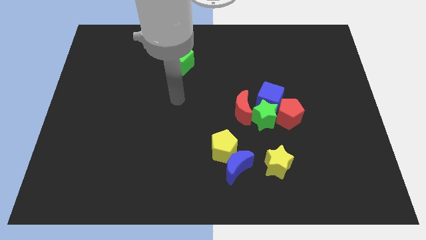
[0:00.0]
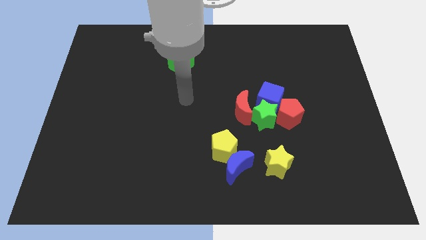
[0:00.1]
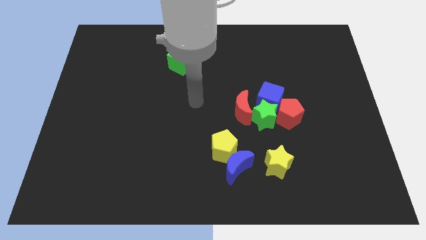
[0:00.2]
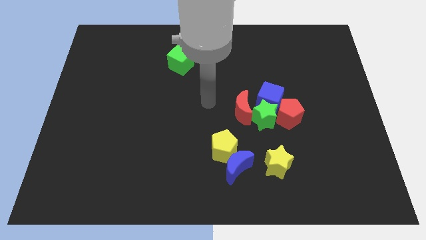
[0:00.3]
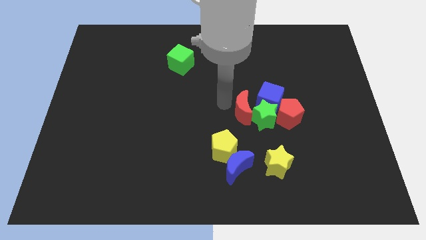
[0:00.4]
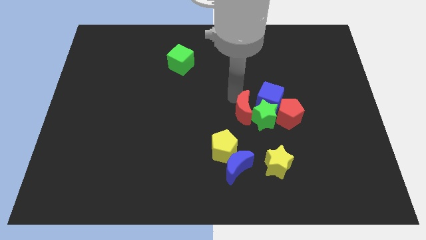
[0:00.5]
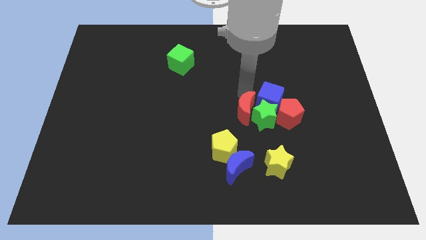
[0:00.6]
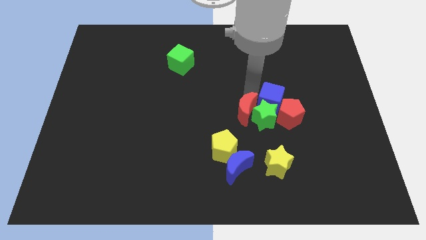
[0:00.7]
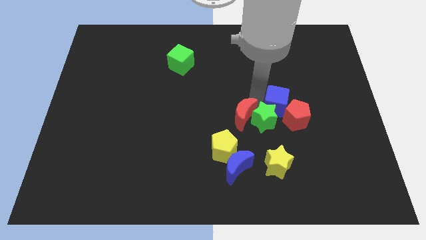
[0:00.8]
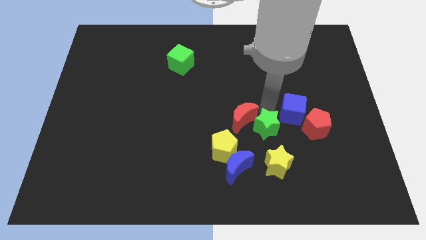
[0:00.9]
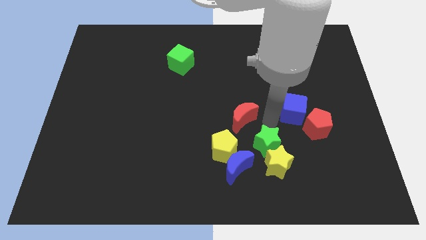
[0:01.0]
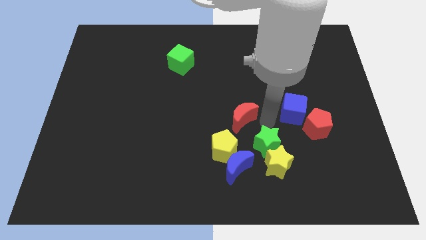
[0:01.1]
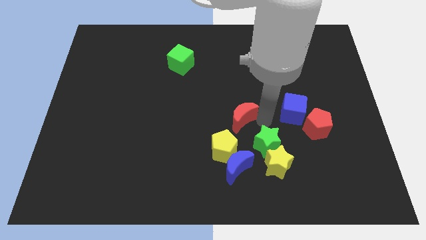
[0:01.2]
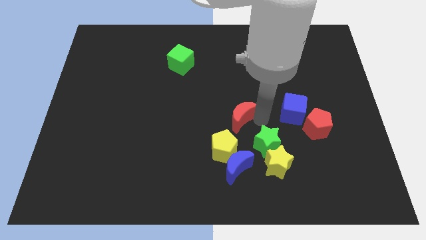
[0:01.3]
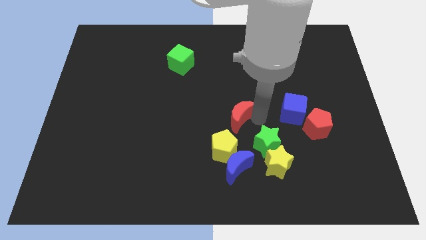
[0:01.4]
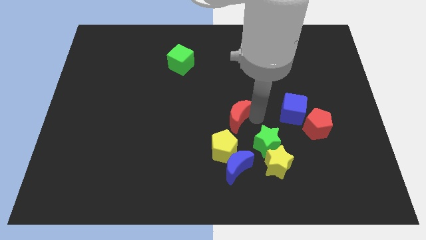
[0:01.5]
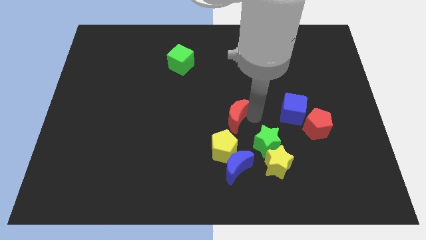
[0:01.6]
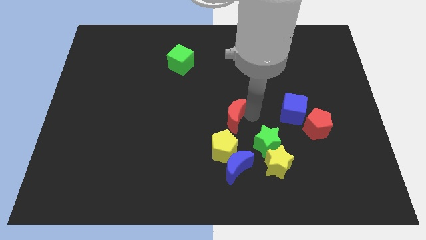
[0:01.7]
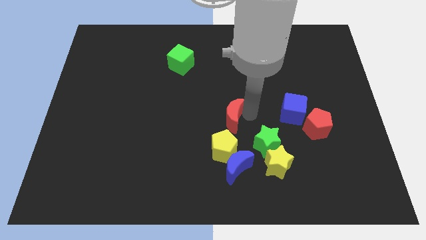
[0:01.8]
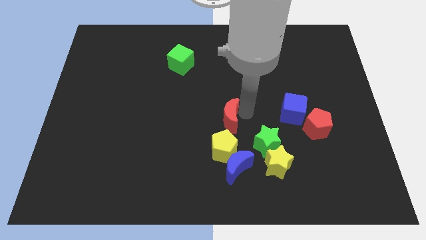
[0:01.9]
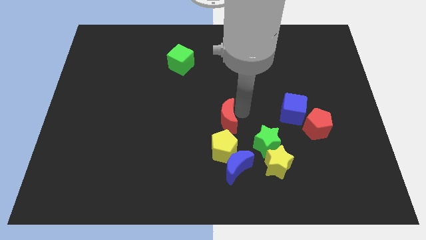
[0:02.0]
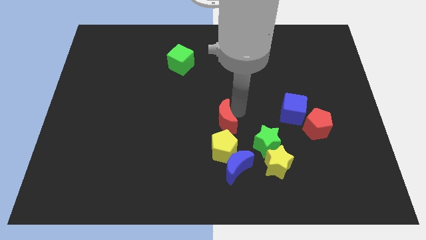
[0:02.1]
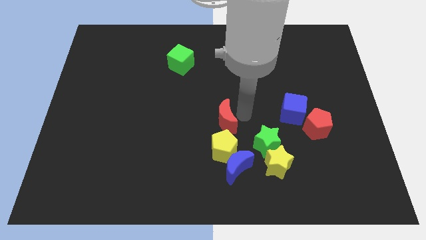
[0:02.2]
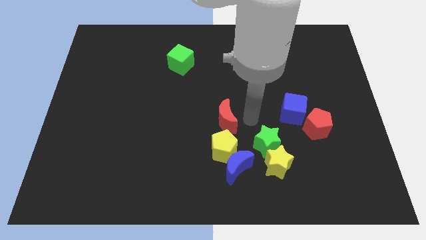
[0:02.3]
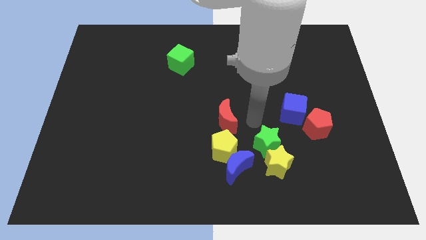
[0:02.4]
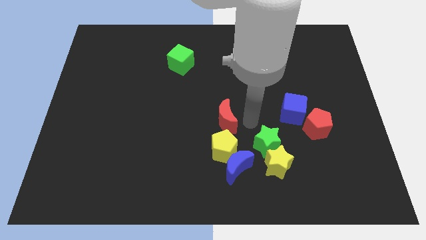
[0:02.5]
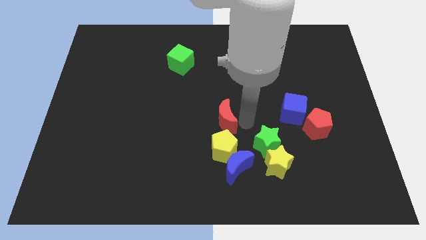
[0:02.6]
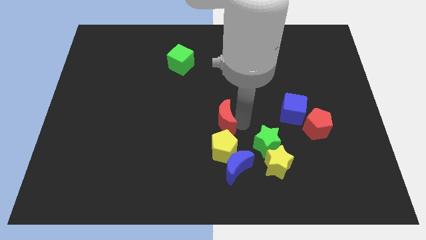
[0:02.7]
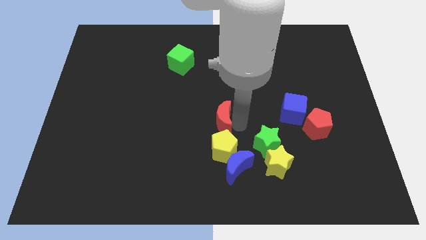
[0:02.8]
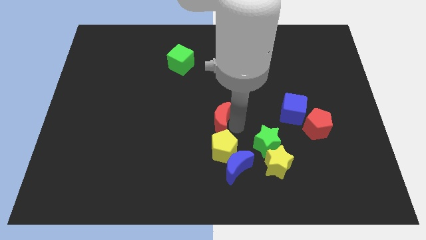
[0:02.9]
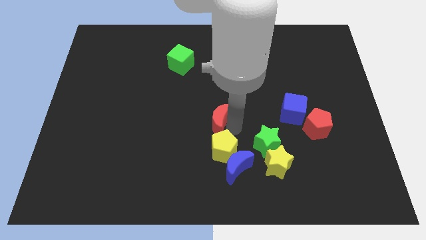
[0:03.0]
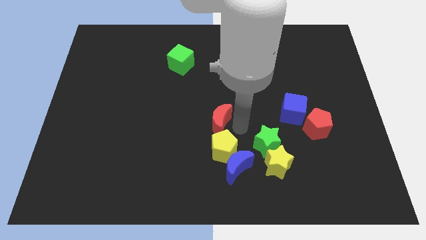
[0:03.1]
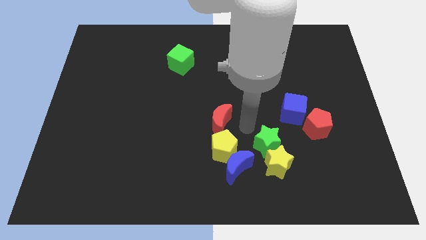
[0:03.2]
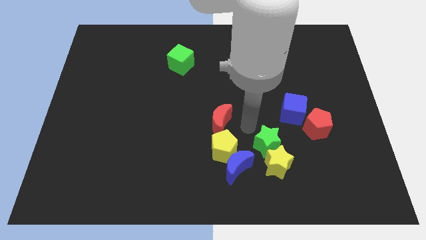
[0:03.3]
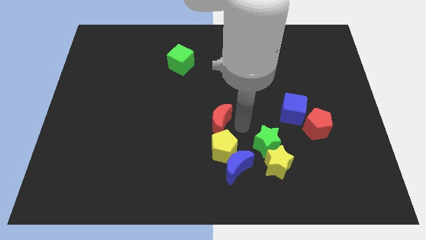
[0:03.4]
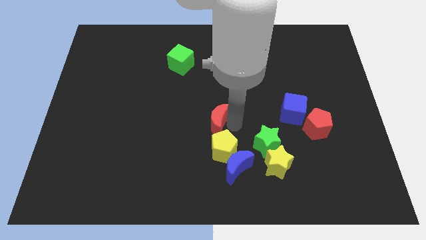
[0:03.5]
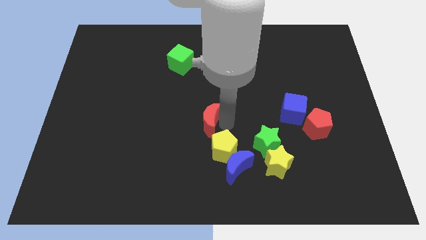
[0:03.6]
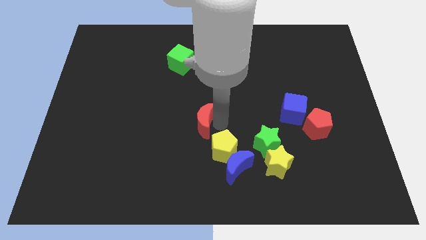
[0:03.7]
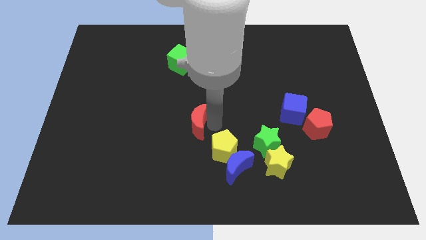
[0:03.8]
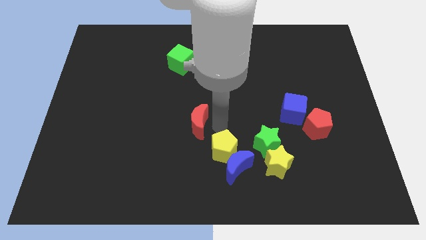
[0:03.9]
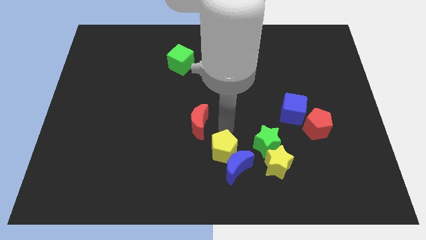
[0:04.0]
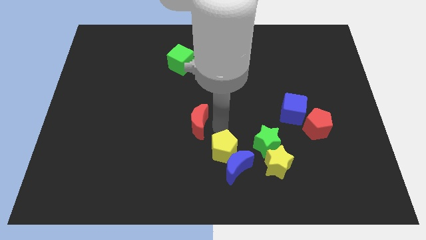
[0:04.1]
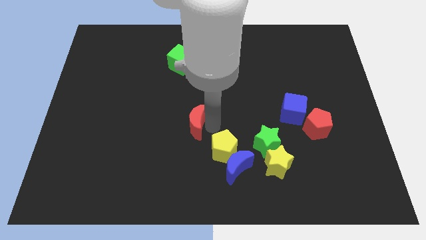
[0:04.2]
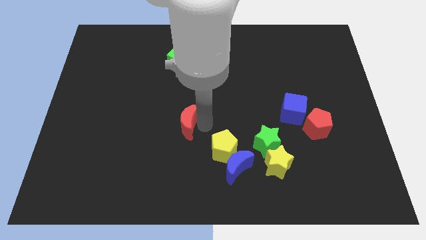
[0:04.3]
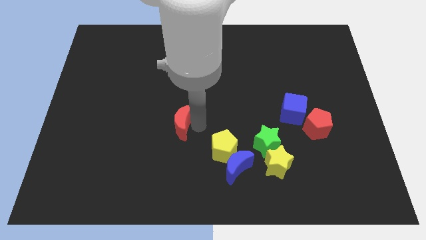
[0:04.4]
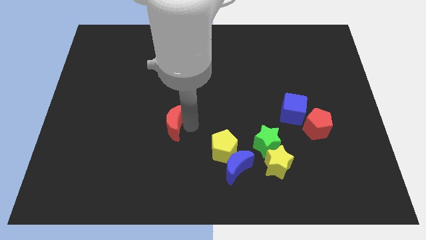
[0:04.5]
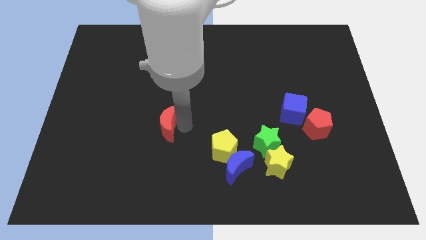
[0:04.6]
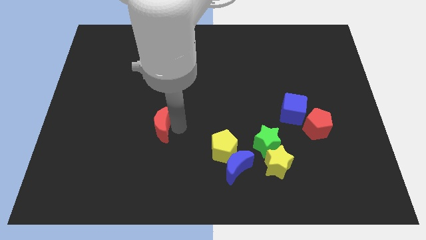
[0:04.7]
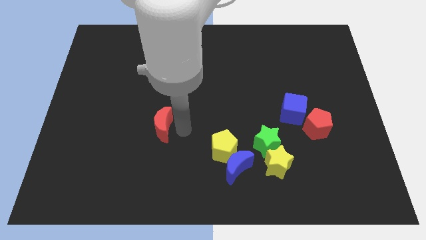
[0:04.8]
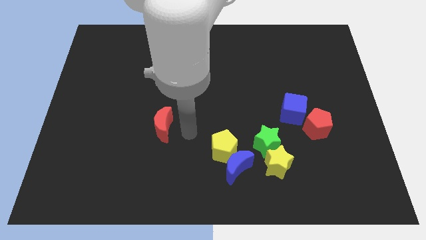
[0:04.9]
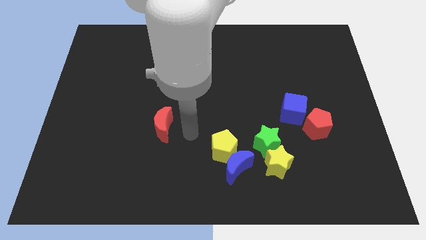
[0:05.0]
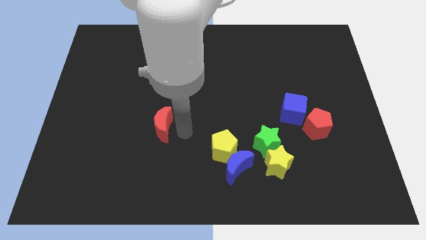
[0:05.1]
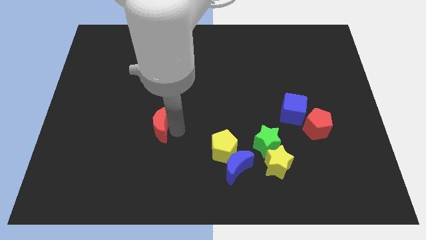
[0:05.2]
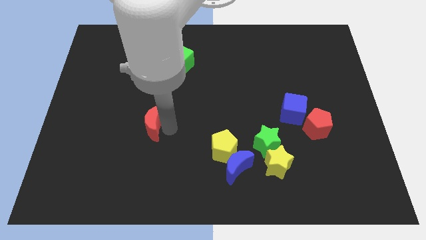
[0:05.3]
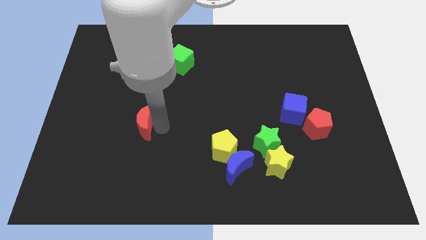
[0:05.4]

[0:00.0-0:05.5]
push the red moon to the left

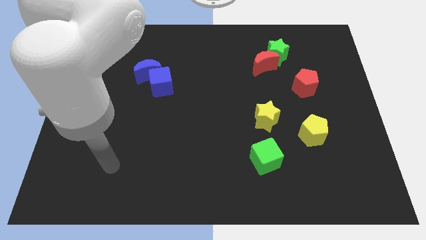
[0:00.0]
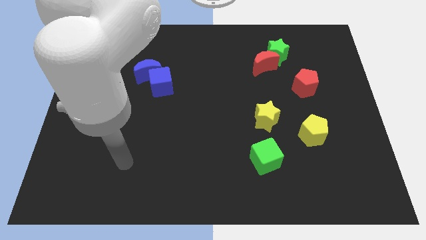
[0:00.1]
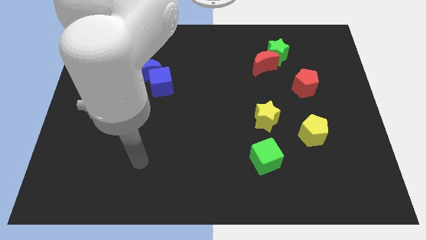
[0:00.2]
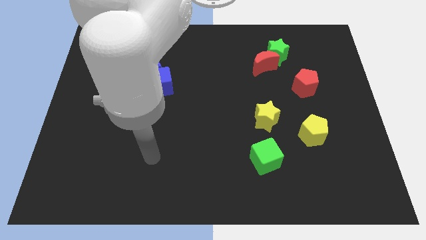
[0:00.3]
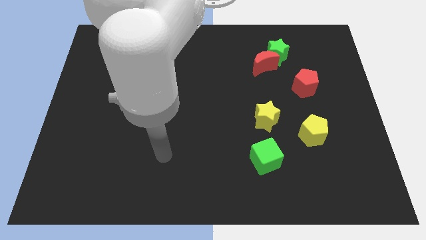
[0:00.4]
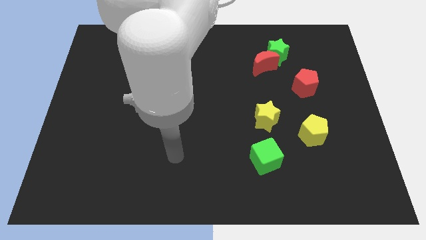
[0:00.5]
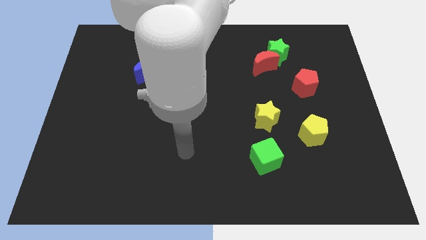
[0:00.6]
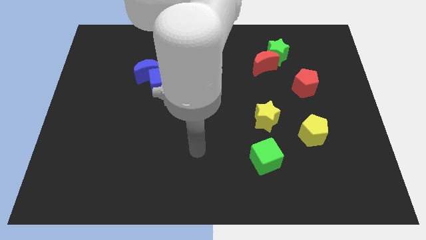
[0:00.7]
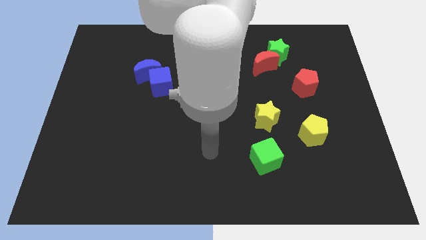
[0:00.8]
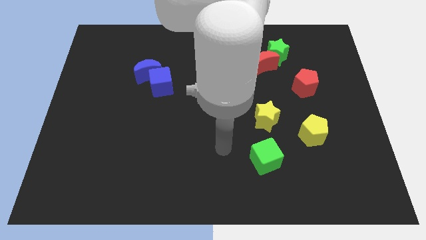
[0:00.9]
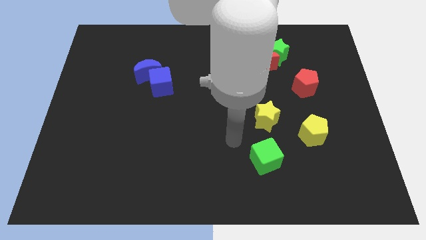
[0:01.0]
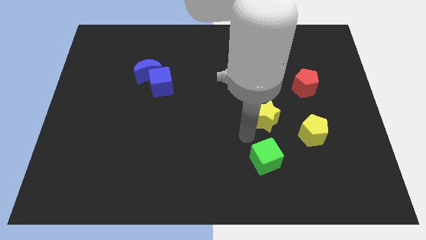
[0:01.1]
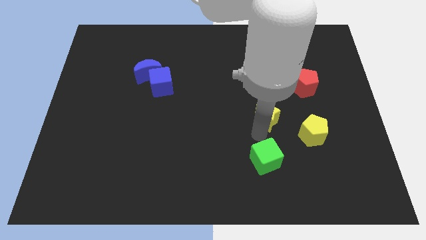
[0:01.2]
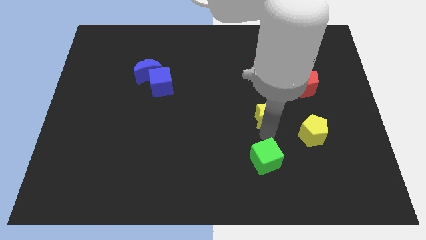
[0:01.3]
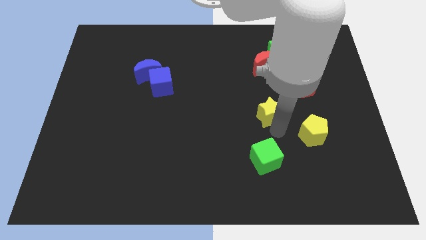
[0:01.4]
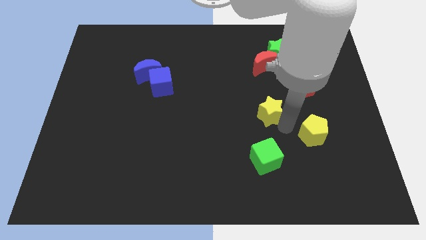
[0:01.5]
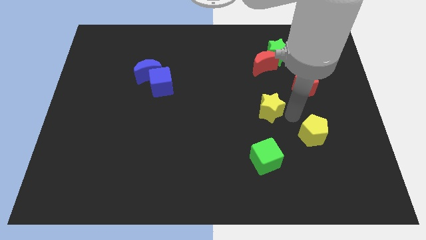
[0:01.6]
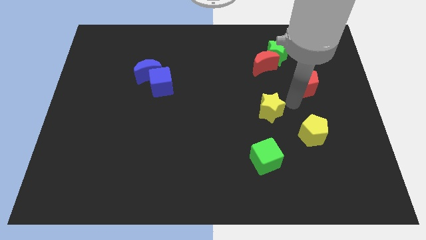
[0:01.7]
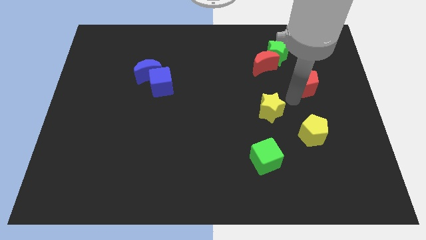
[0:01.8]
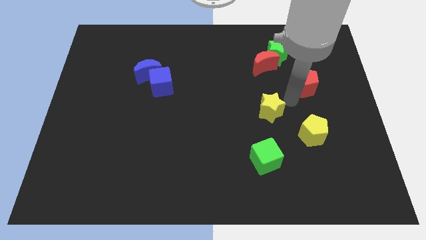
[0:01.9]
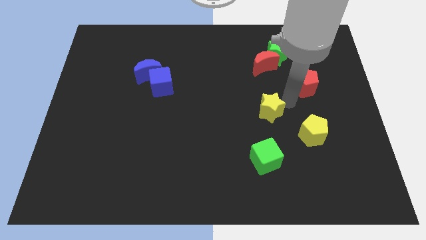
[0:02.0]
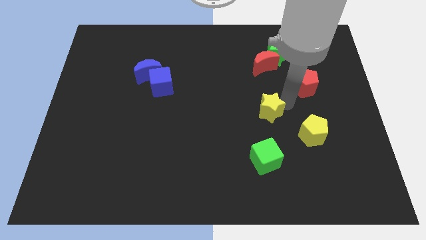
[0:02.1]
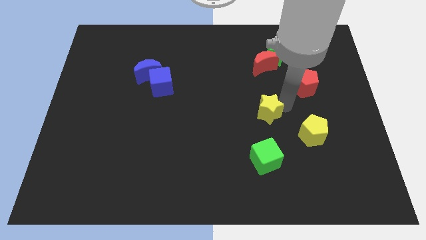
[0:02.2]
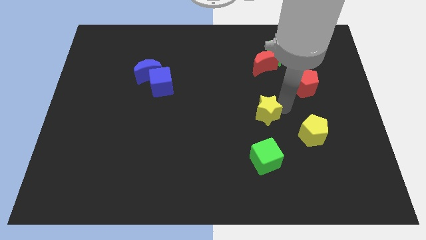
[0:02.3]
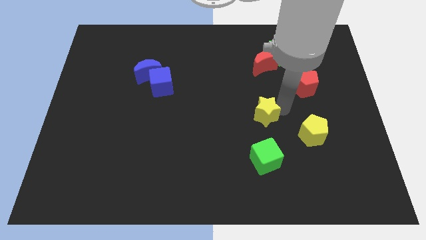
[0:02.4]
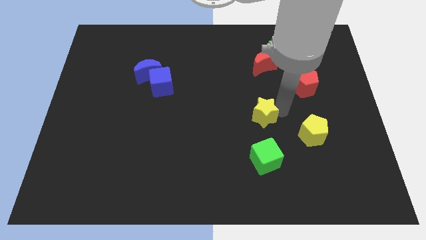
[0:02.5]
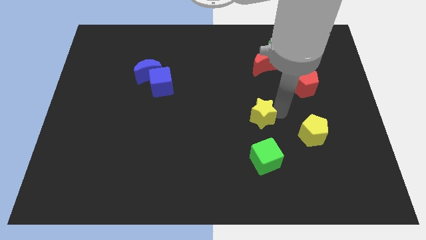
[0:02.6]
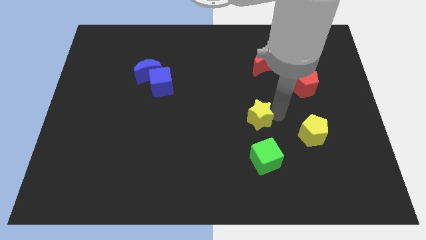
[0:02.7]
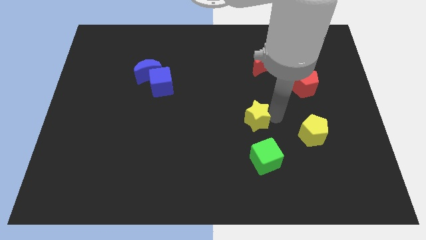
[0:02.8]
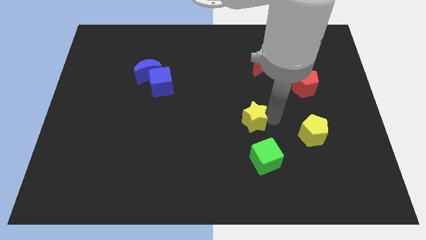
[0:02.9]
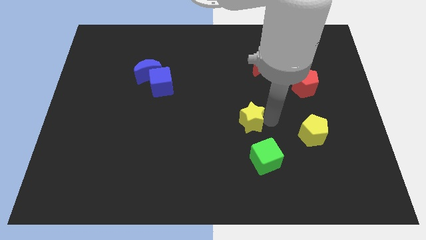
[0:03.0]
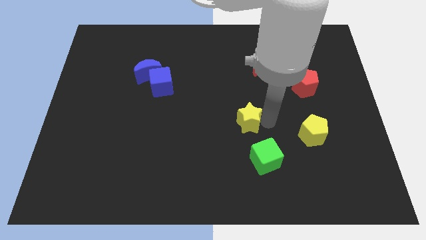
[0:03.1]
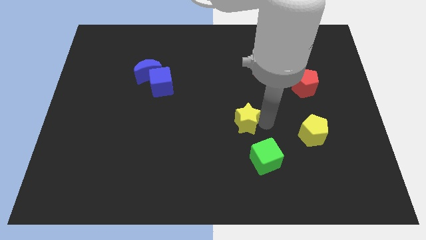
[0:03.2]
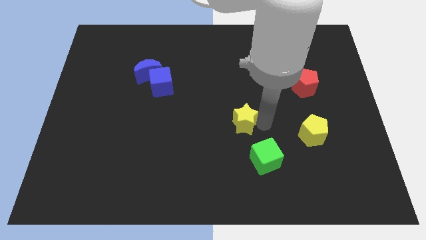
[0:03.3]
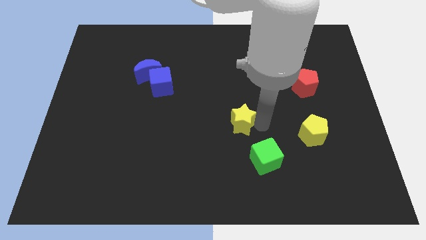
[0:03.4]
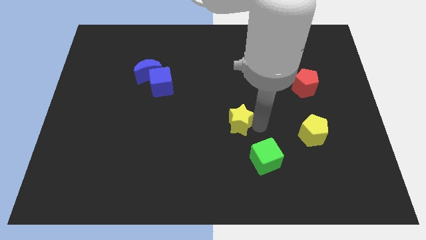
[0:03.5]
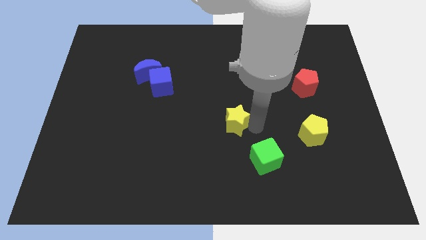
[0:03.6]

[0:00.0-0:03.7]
slightly slide the yellow star to the left
